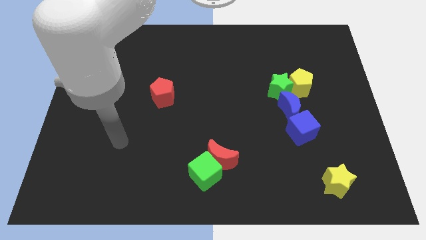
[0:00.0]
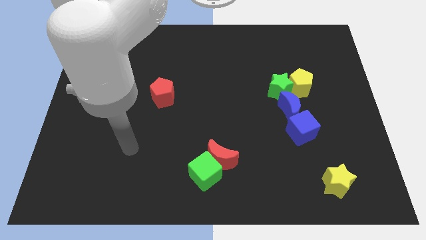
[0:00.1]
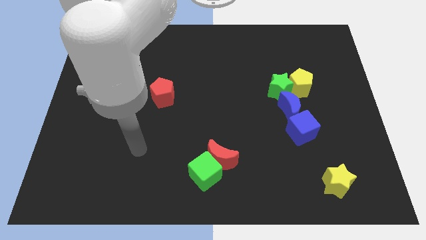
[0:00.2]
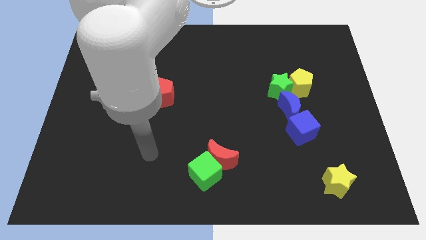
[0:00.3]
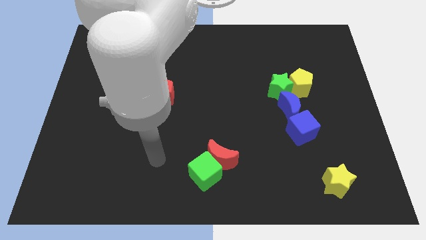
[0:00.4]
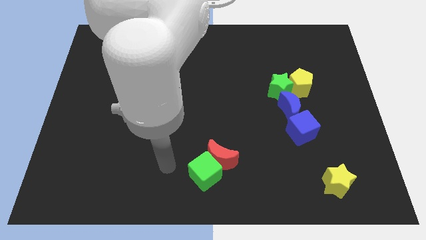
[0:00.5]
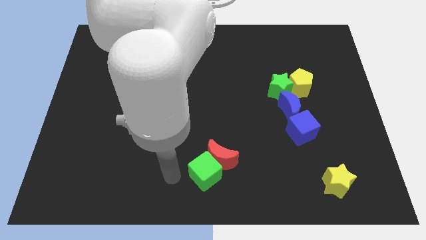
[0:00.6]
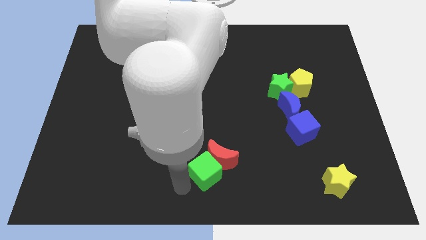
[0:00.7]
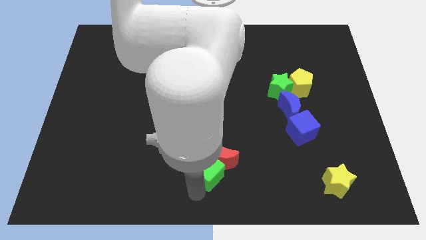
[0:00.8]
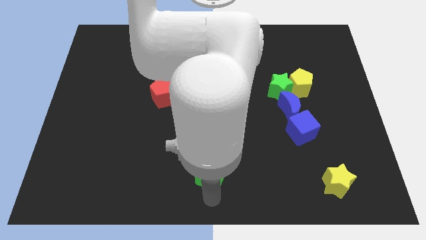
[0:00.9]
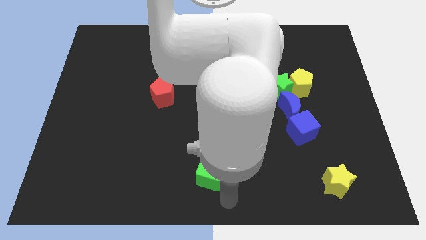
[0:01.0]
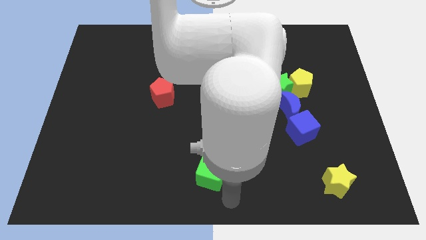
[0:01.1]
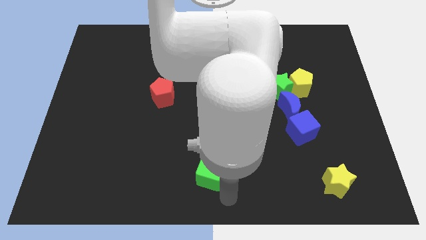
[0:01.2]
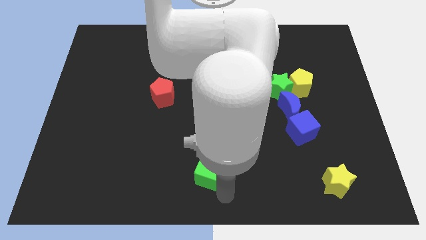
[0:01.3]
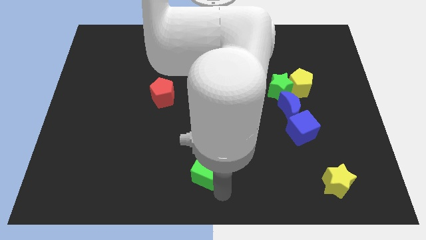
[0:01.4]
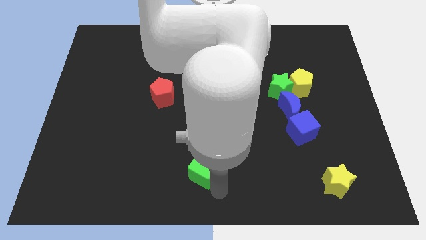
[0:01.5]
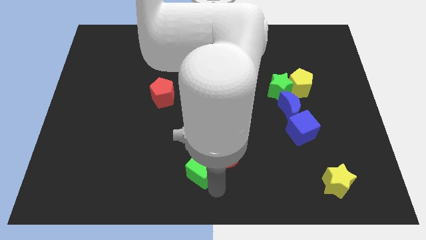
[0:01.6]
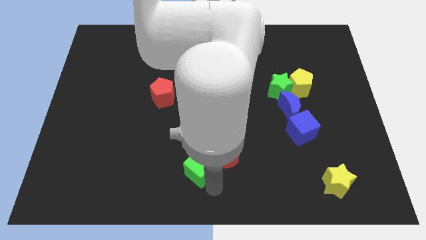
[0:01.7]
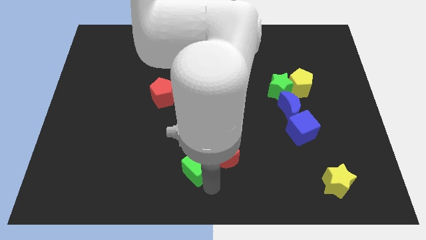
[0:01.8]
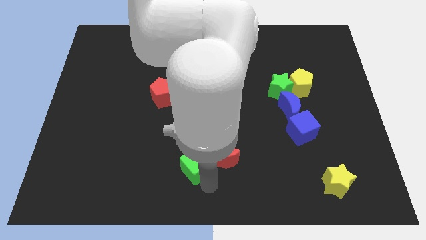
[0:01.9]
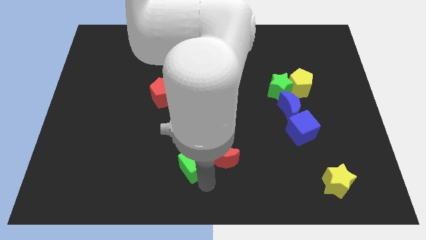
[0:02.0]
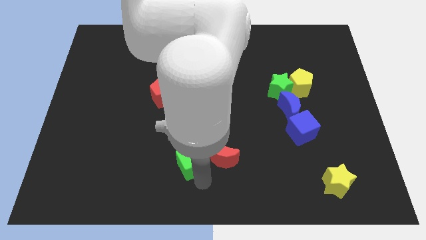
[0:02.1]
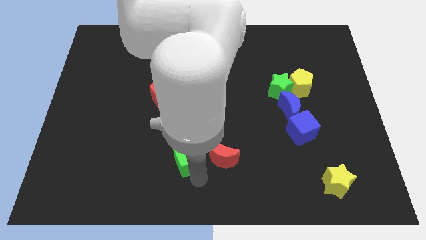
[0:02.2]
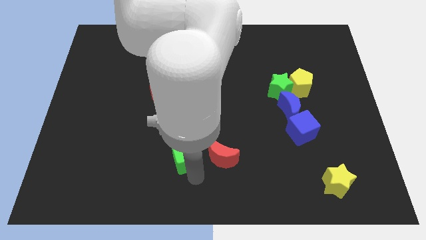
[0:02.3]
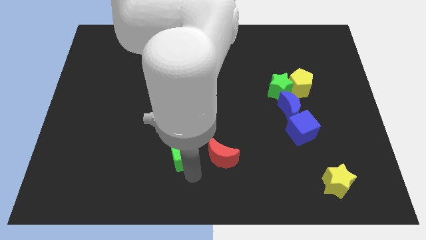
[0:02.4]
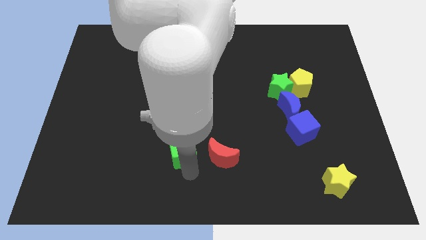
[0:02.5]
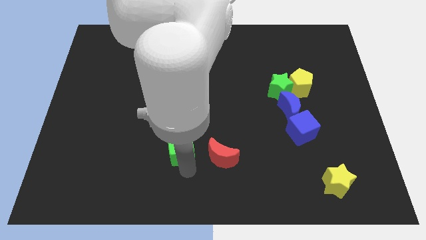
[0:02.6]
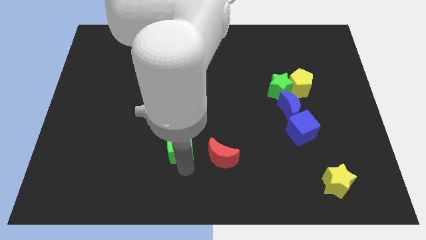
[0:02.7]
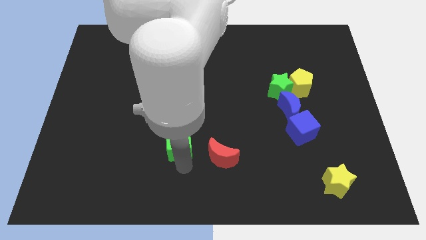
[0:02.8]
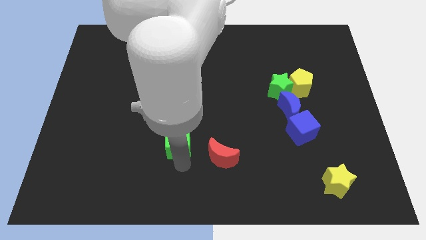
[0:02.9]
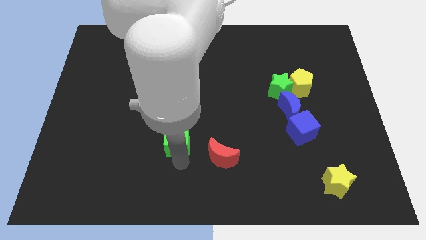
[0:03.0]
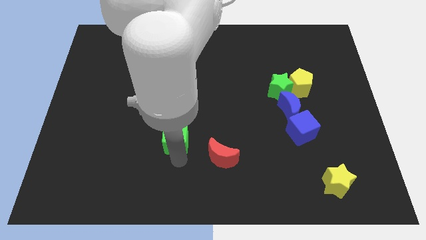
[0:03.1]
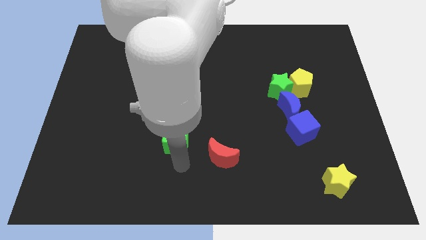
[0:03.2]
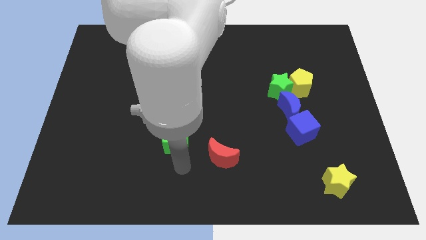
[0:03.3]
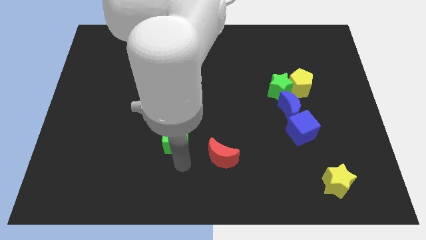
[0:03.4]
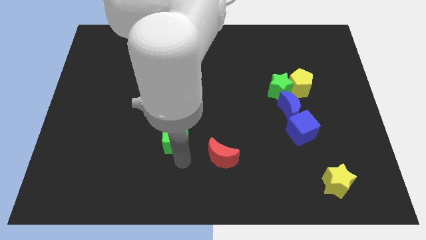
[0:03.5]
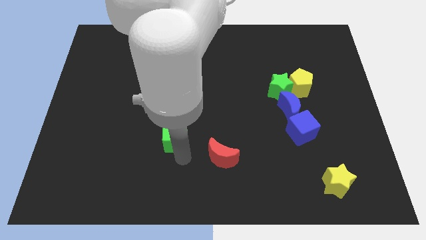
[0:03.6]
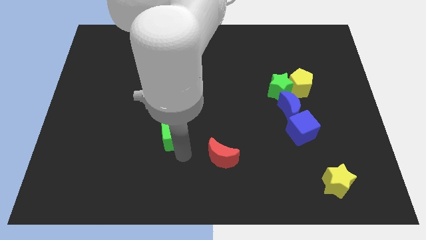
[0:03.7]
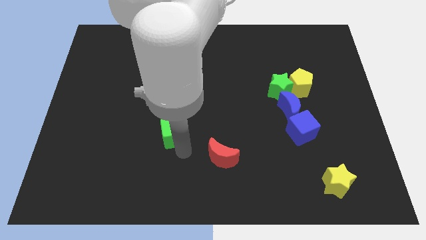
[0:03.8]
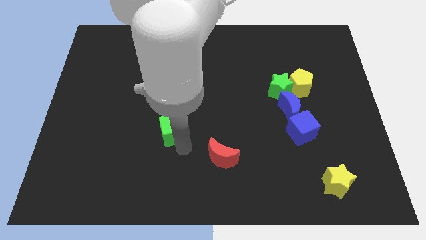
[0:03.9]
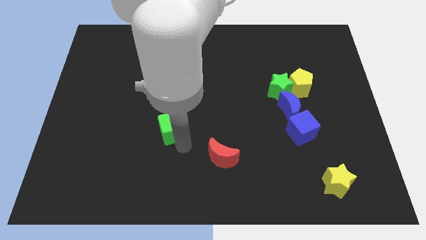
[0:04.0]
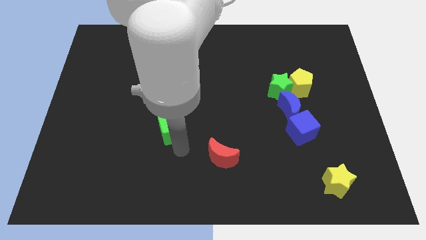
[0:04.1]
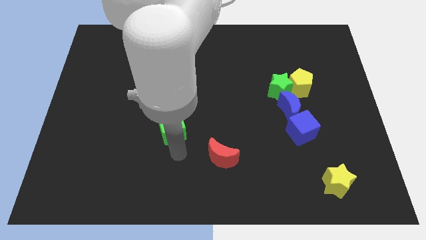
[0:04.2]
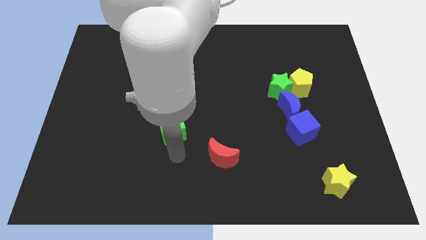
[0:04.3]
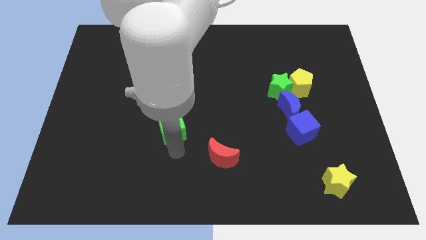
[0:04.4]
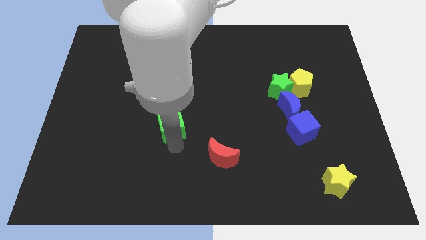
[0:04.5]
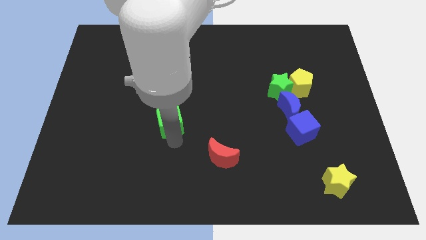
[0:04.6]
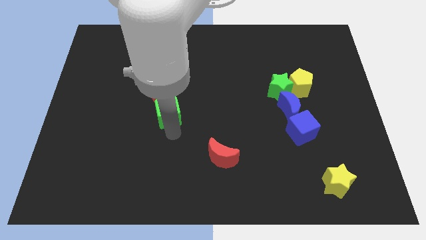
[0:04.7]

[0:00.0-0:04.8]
push the green cube to the red pentagon

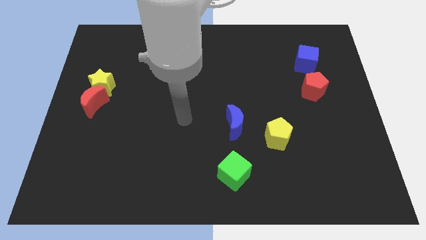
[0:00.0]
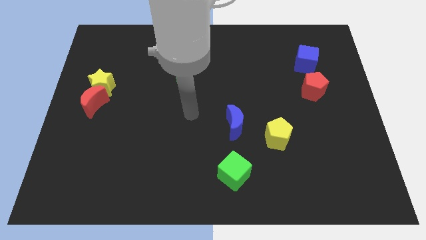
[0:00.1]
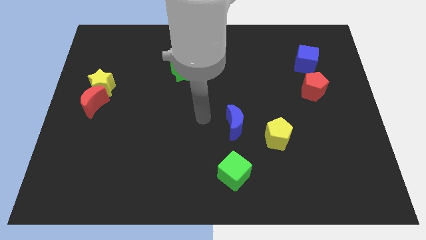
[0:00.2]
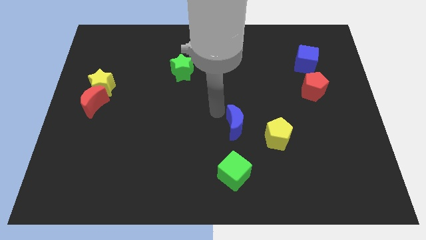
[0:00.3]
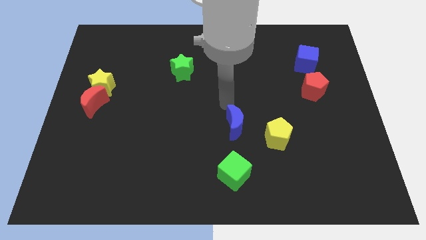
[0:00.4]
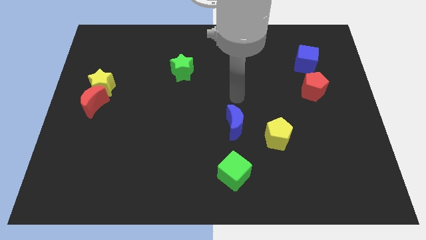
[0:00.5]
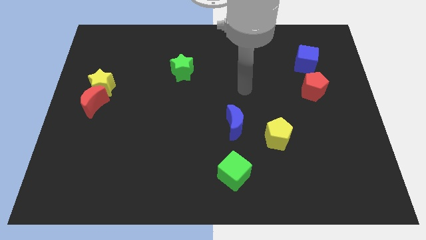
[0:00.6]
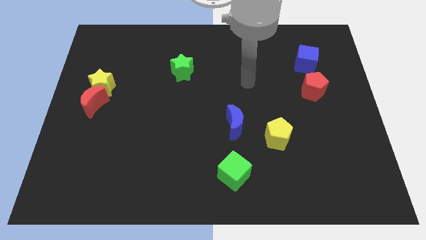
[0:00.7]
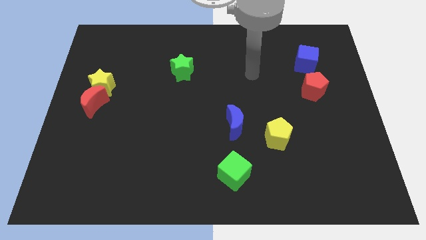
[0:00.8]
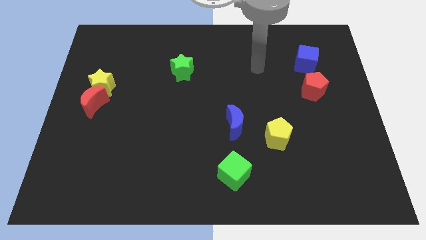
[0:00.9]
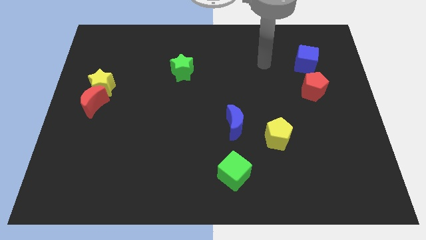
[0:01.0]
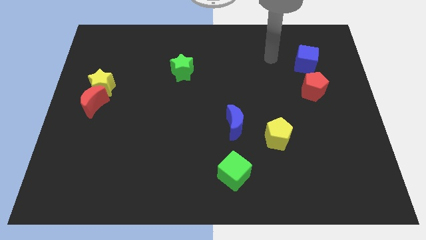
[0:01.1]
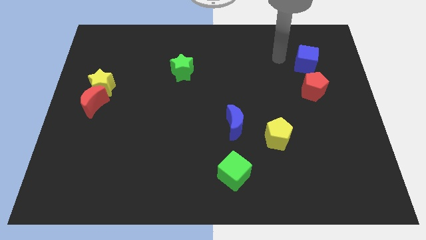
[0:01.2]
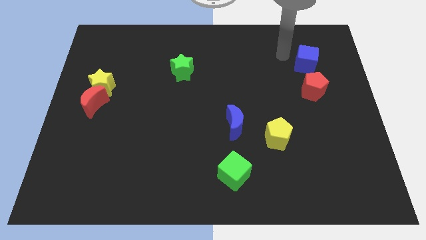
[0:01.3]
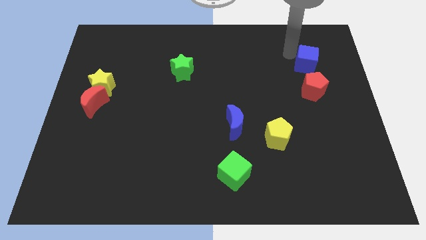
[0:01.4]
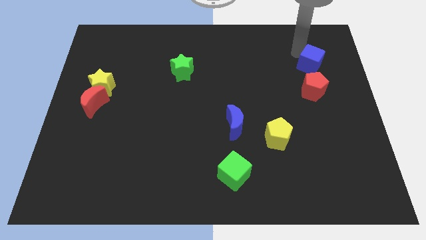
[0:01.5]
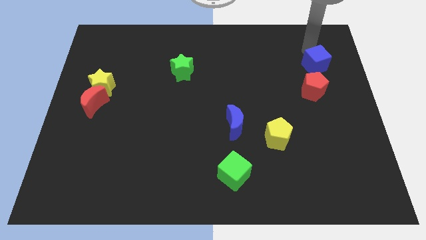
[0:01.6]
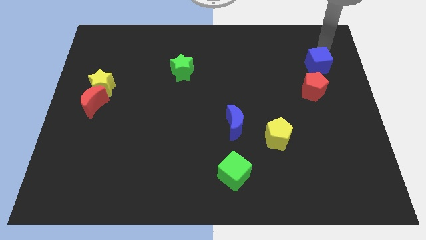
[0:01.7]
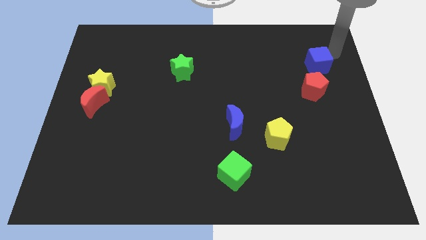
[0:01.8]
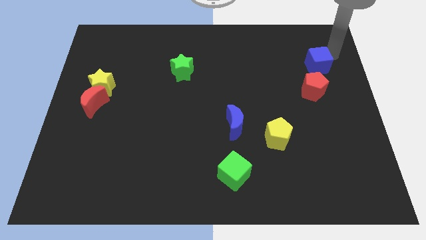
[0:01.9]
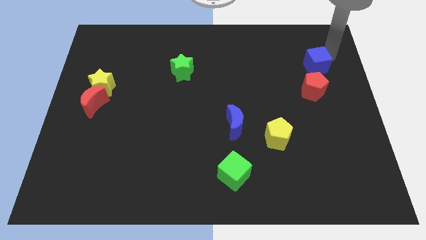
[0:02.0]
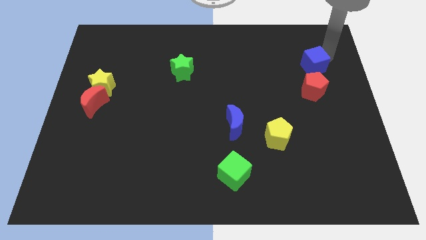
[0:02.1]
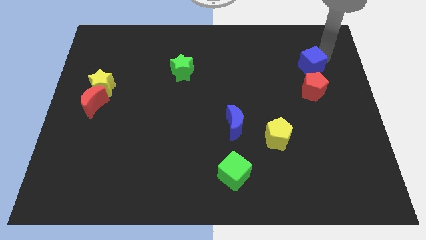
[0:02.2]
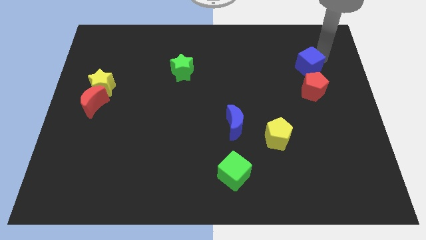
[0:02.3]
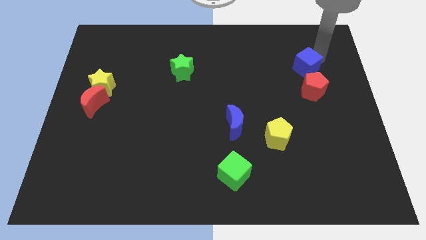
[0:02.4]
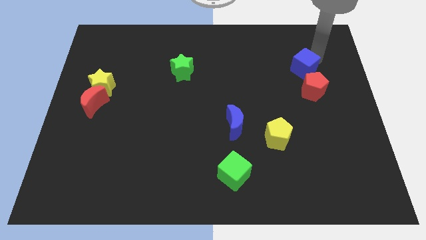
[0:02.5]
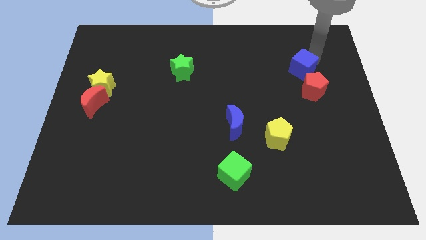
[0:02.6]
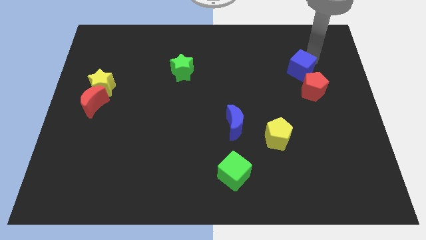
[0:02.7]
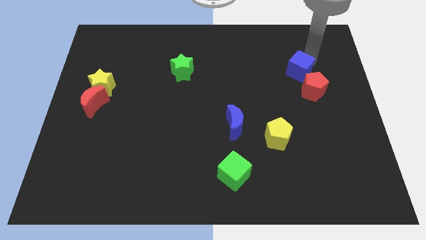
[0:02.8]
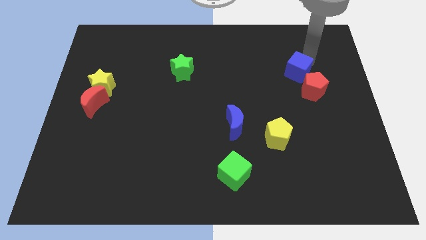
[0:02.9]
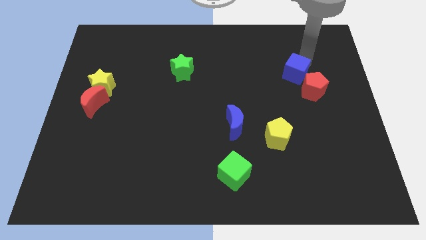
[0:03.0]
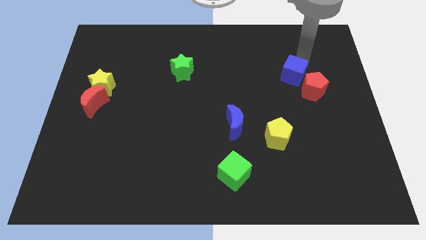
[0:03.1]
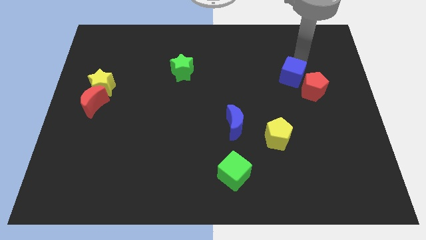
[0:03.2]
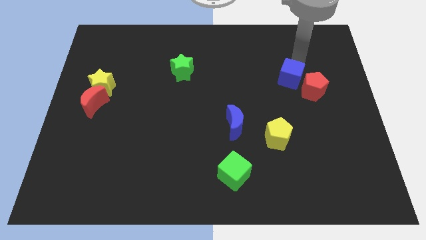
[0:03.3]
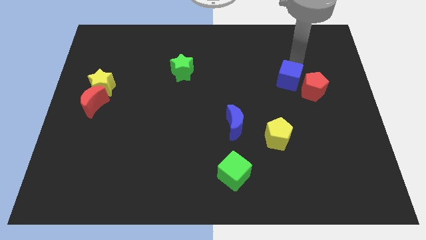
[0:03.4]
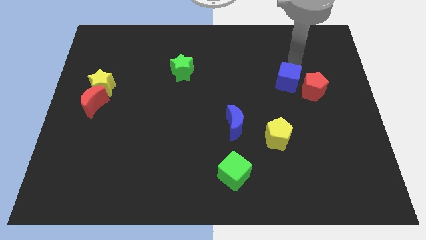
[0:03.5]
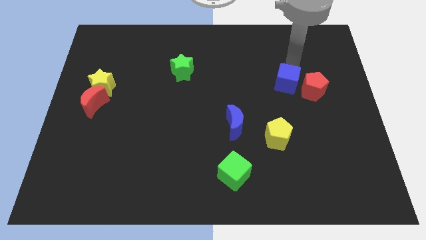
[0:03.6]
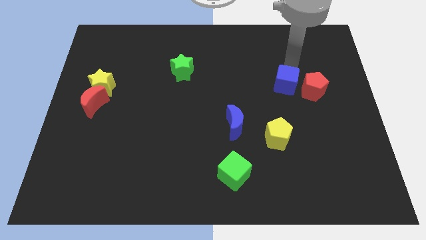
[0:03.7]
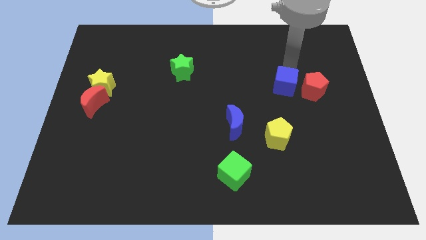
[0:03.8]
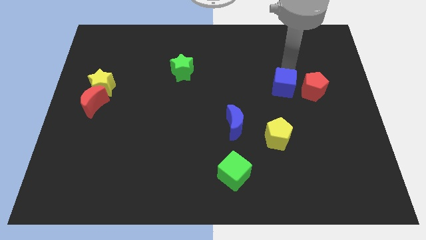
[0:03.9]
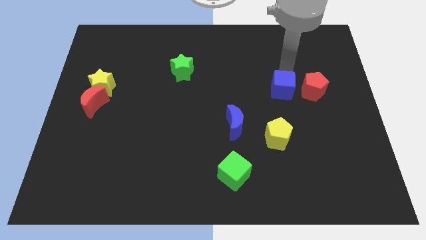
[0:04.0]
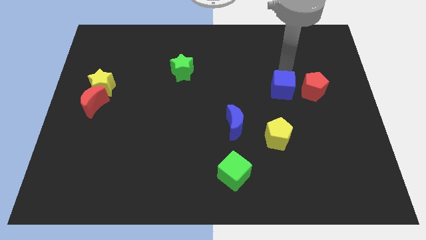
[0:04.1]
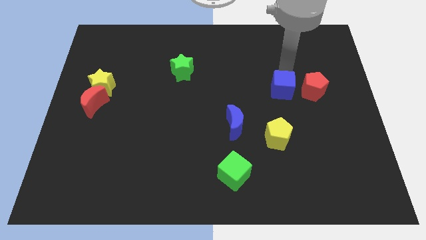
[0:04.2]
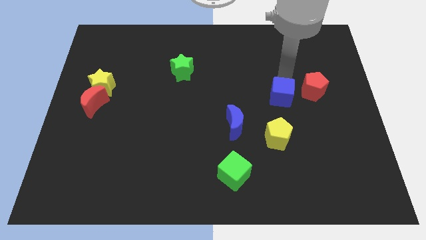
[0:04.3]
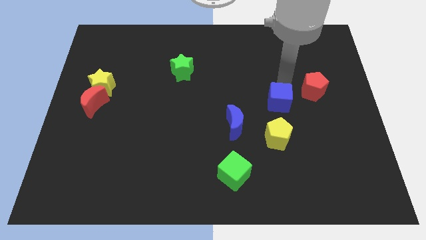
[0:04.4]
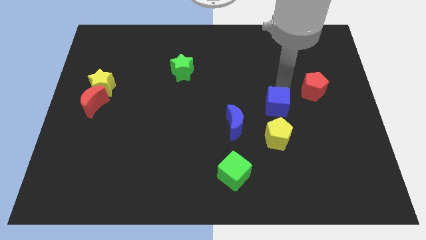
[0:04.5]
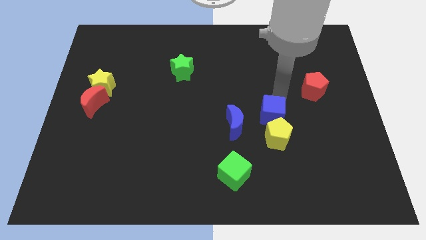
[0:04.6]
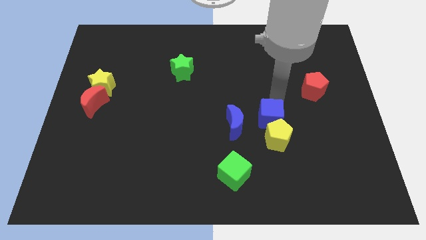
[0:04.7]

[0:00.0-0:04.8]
slide the blue cube next to the yellow pentagon
